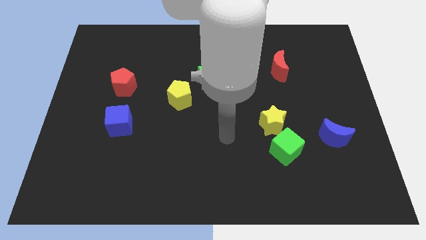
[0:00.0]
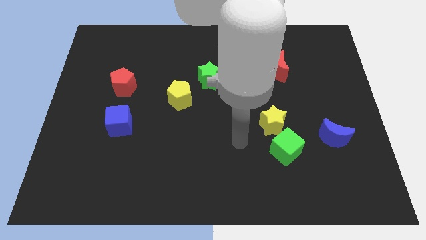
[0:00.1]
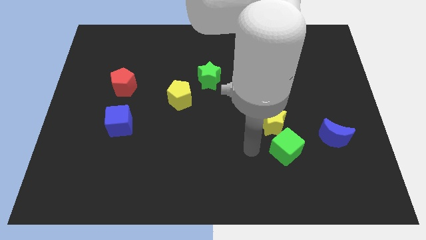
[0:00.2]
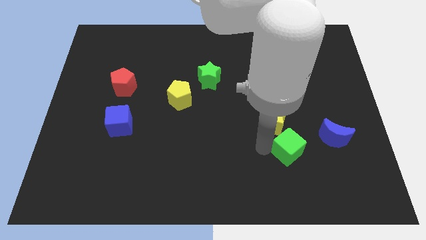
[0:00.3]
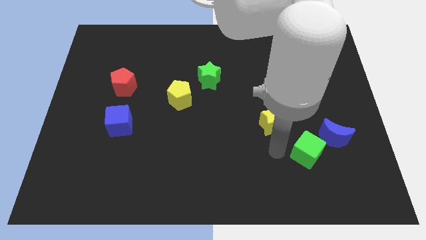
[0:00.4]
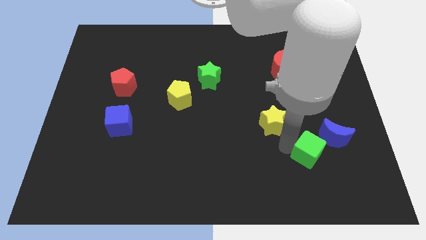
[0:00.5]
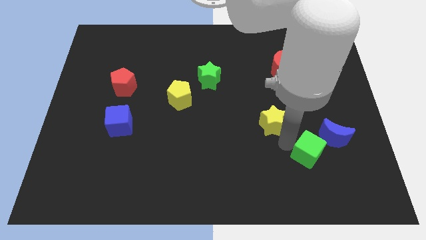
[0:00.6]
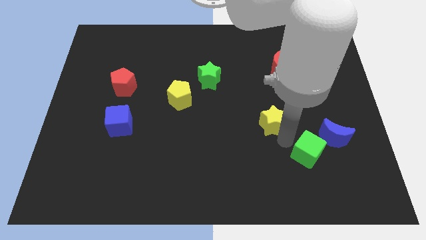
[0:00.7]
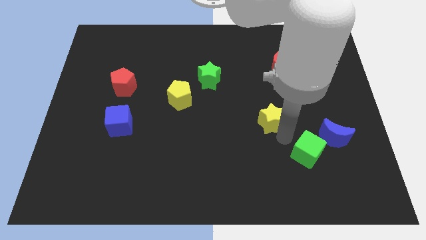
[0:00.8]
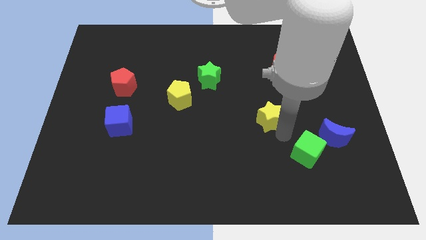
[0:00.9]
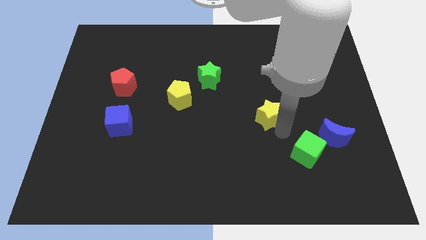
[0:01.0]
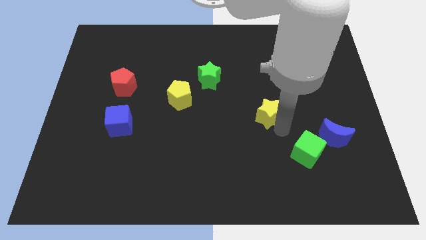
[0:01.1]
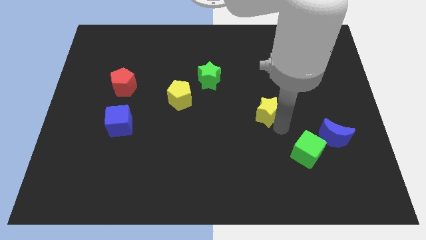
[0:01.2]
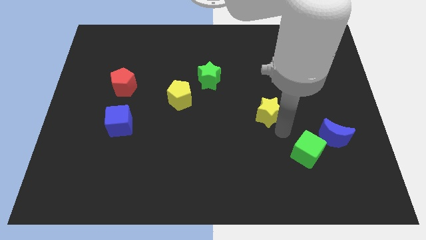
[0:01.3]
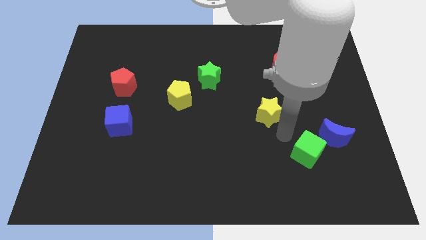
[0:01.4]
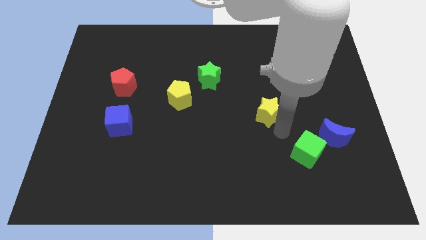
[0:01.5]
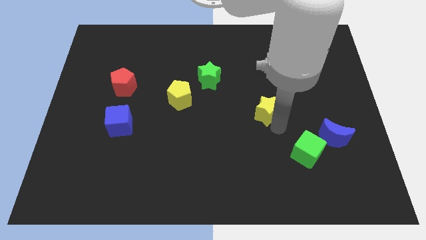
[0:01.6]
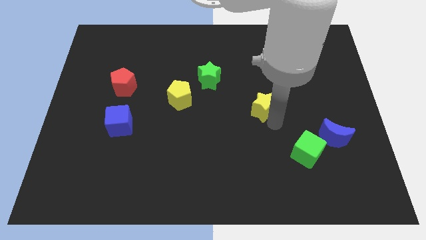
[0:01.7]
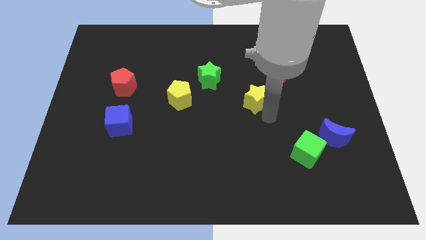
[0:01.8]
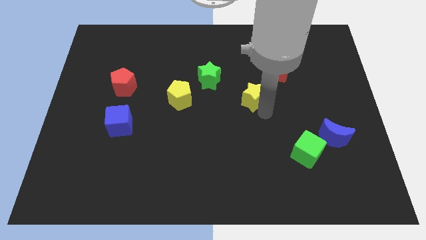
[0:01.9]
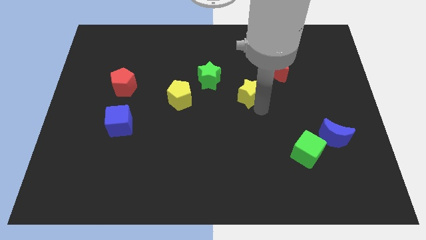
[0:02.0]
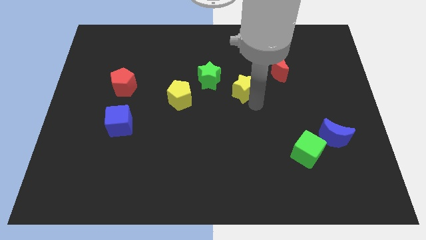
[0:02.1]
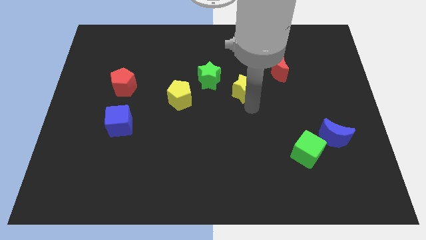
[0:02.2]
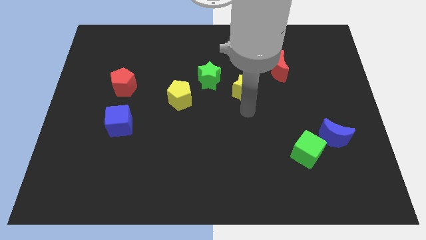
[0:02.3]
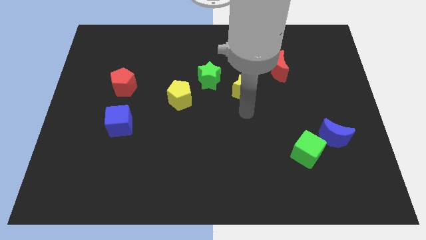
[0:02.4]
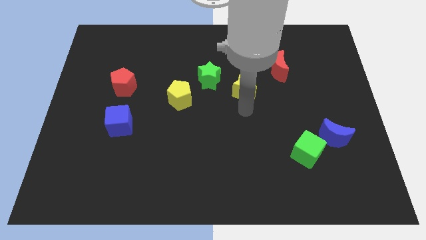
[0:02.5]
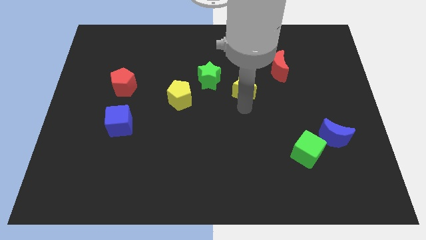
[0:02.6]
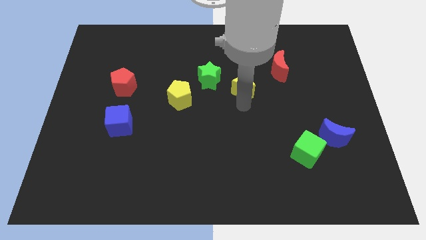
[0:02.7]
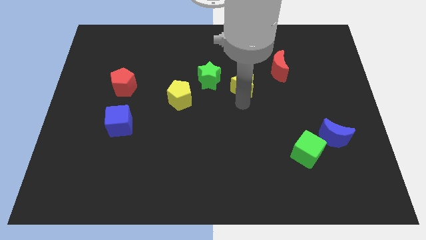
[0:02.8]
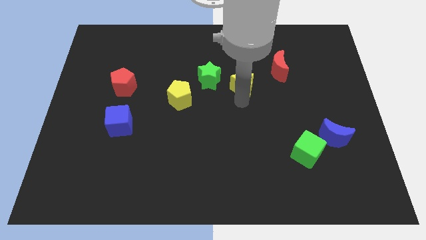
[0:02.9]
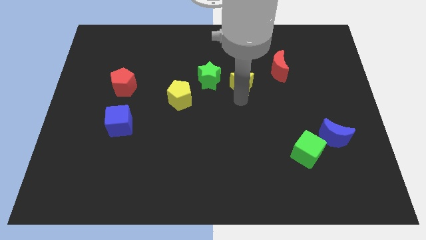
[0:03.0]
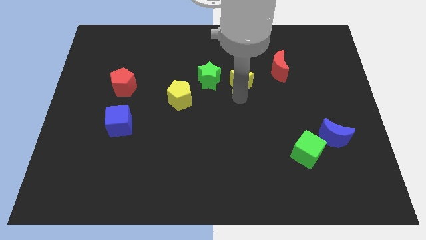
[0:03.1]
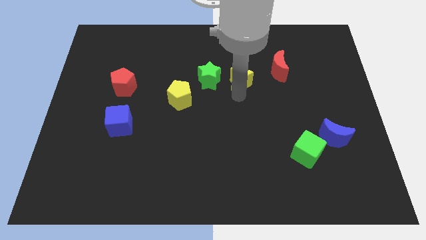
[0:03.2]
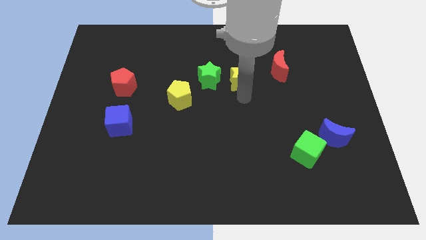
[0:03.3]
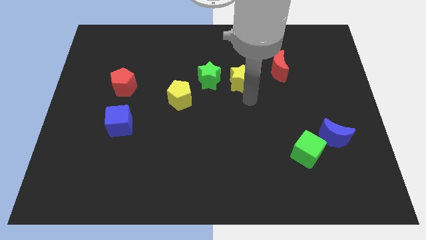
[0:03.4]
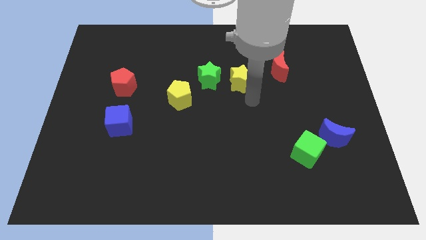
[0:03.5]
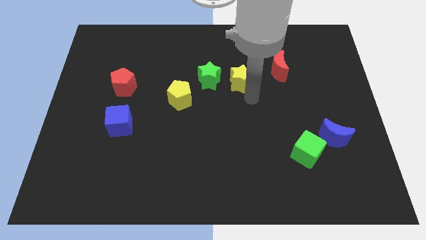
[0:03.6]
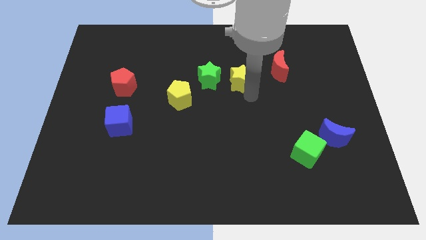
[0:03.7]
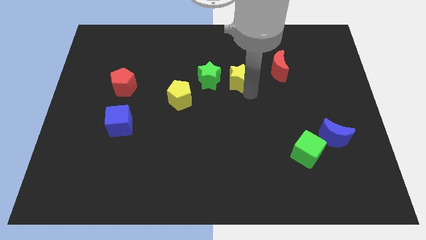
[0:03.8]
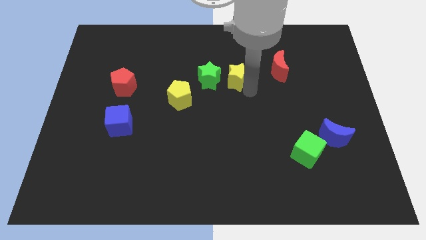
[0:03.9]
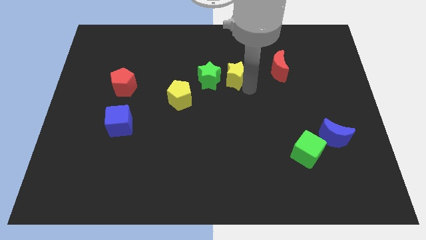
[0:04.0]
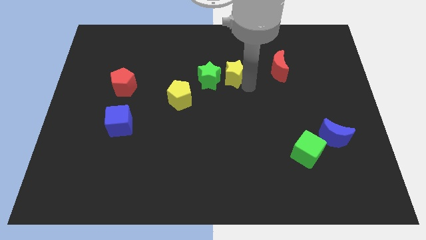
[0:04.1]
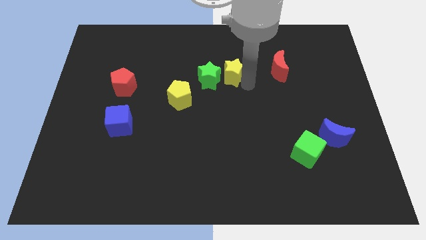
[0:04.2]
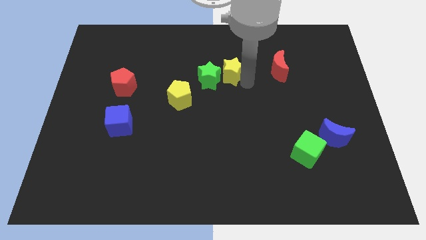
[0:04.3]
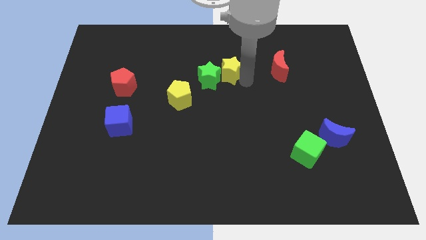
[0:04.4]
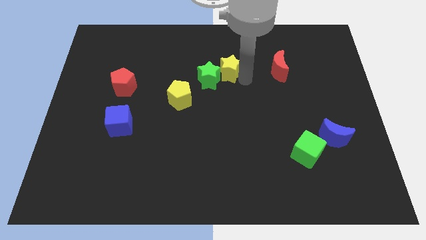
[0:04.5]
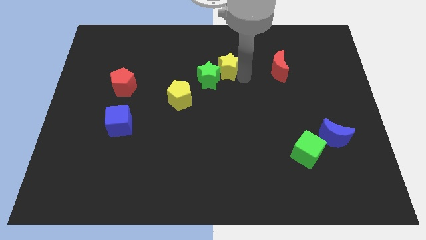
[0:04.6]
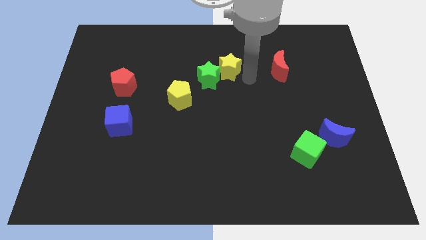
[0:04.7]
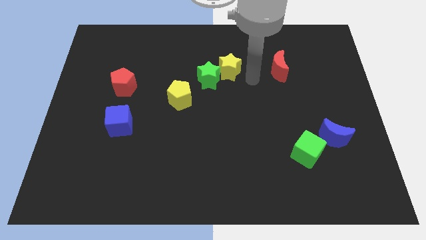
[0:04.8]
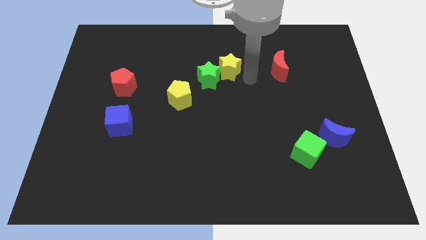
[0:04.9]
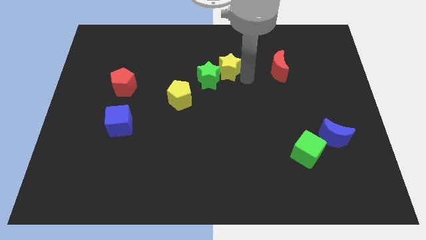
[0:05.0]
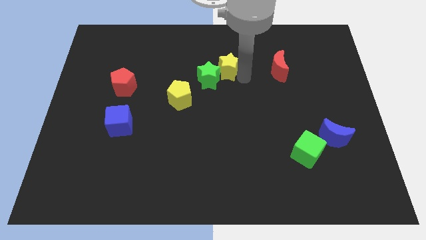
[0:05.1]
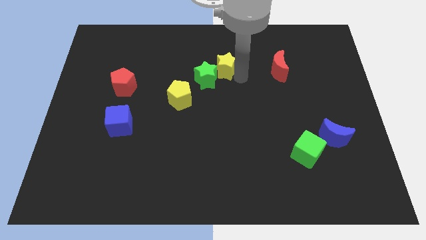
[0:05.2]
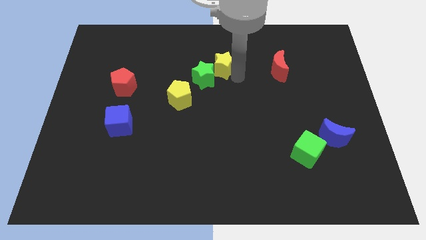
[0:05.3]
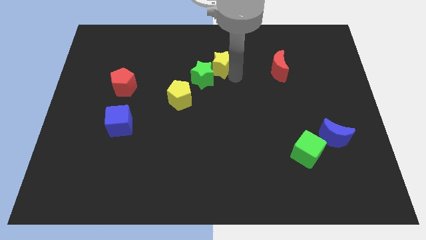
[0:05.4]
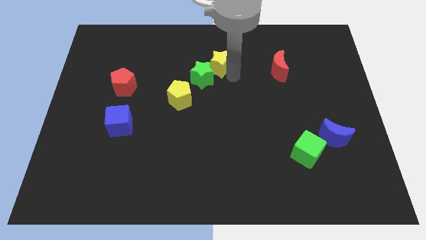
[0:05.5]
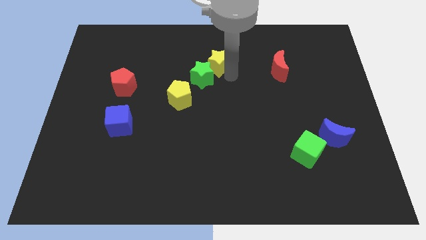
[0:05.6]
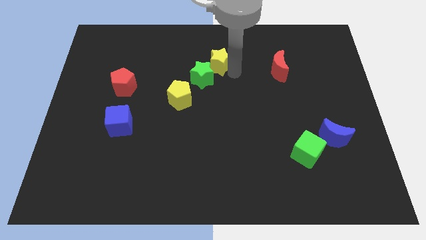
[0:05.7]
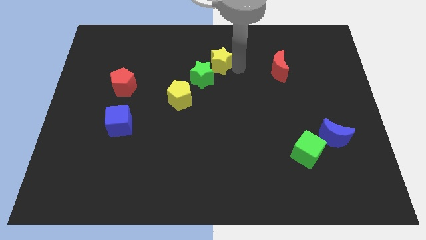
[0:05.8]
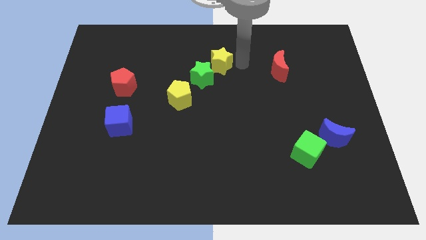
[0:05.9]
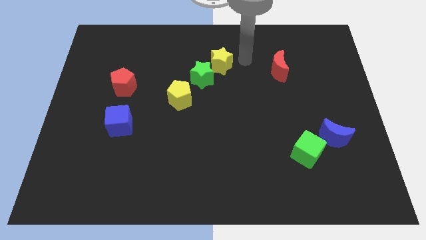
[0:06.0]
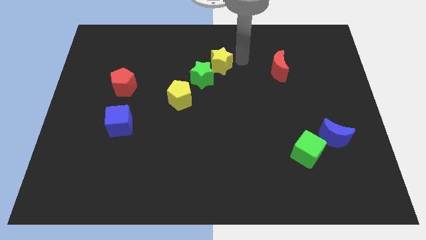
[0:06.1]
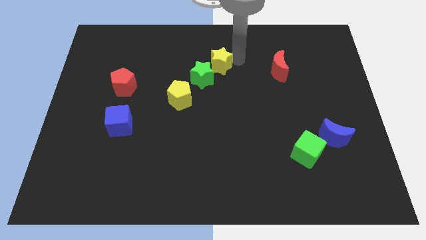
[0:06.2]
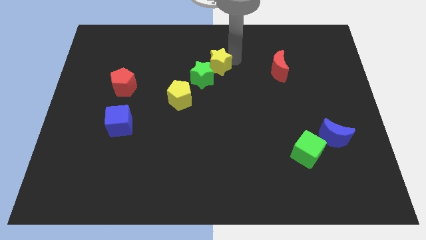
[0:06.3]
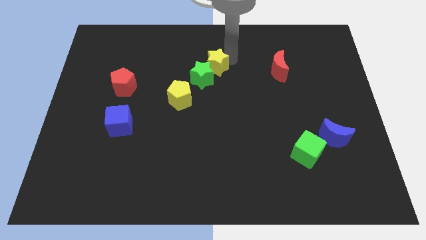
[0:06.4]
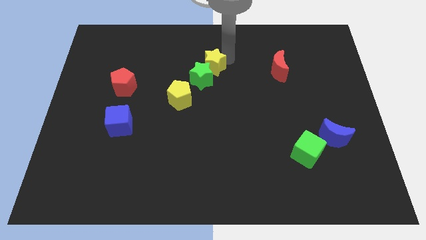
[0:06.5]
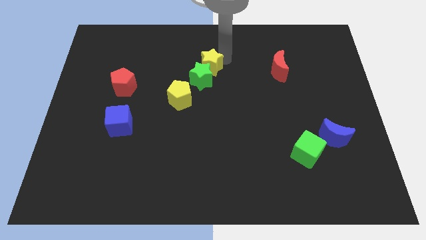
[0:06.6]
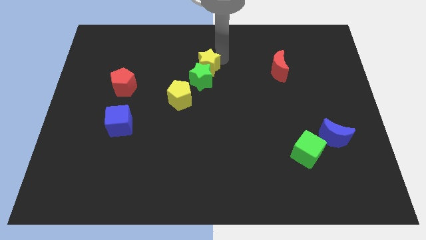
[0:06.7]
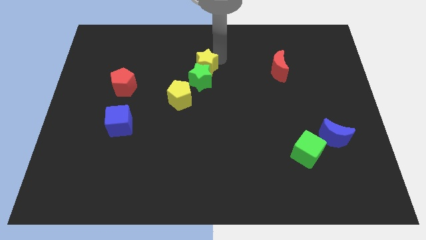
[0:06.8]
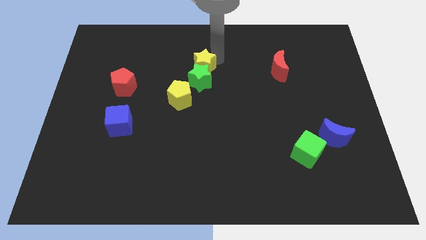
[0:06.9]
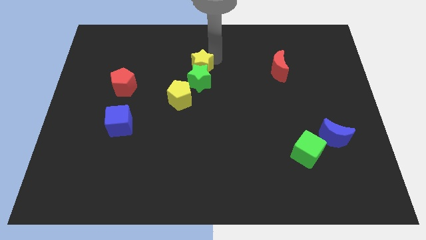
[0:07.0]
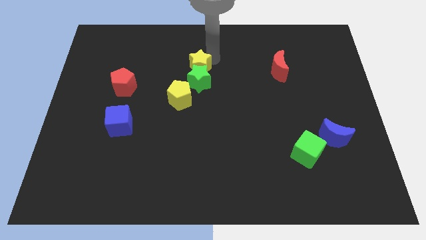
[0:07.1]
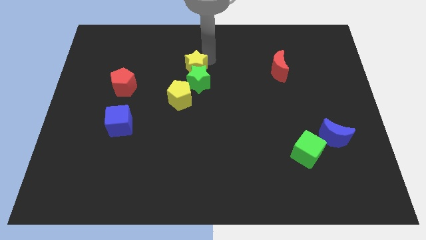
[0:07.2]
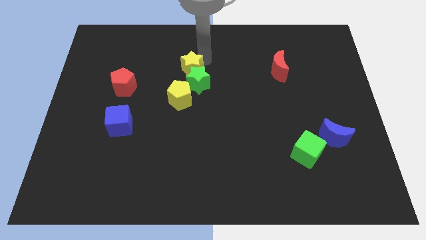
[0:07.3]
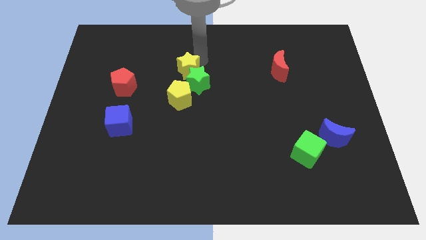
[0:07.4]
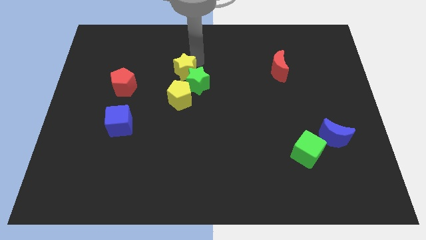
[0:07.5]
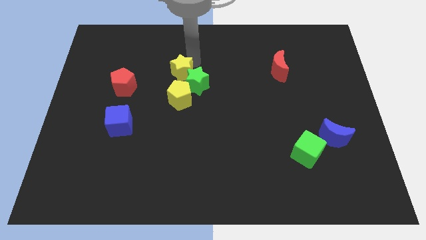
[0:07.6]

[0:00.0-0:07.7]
put the yellow star to the left of the green star
